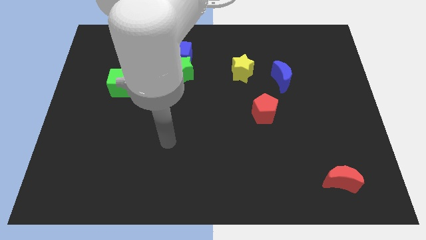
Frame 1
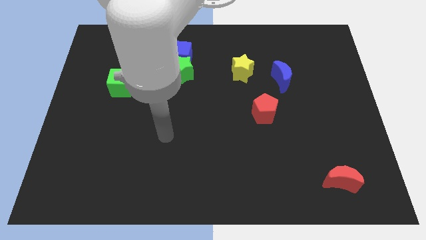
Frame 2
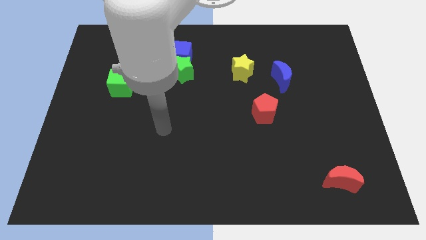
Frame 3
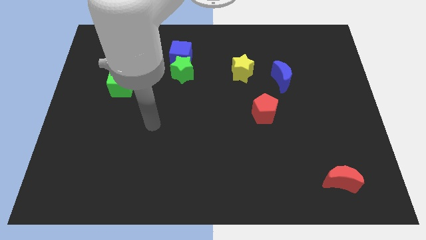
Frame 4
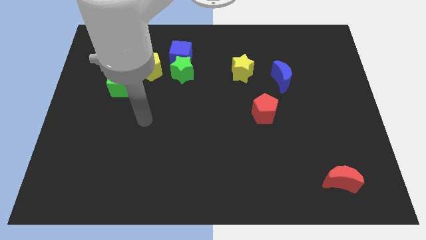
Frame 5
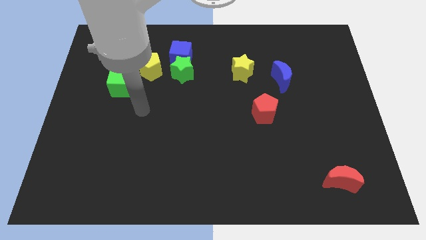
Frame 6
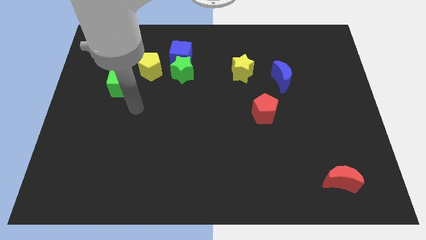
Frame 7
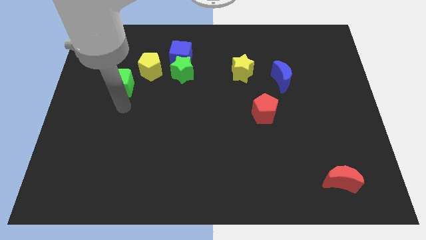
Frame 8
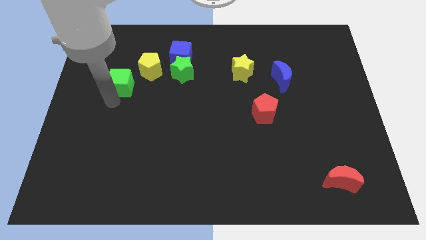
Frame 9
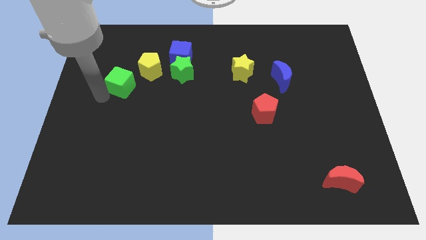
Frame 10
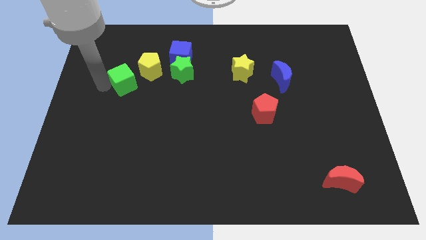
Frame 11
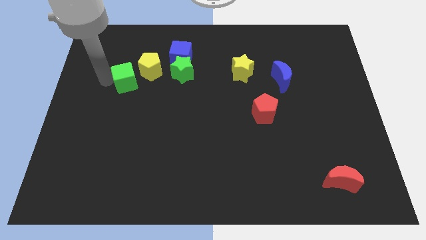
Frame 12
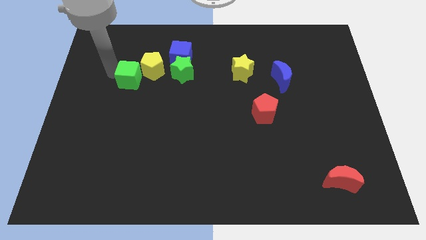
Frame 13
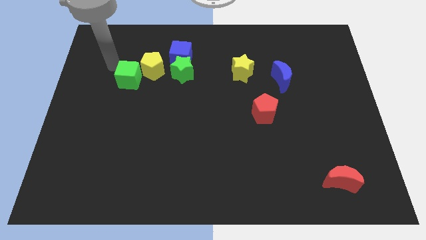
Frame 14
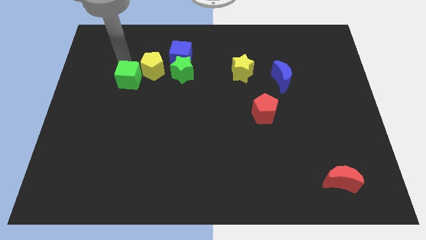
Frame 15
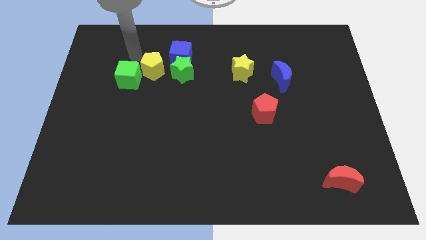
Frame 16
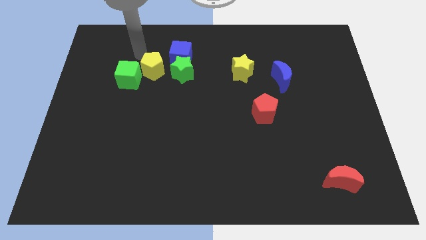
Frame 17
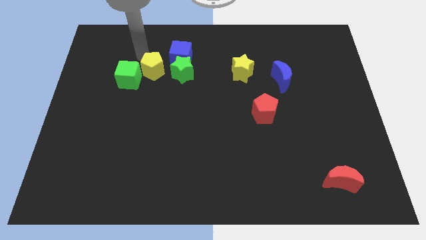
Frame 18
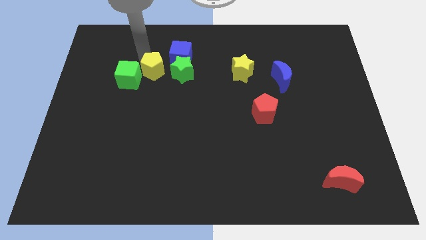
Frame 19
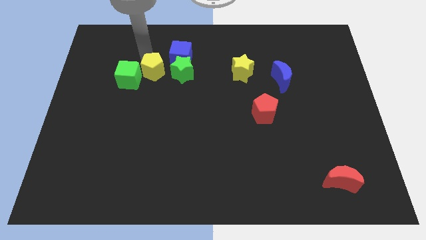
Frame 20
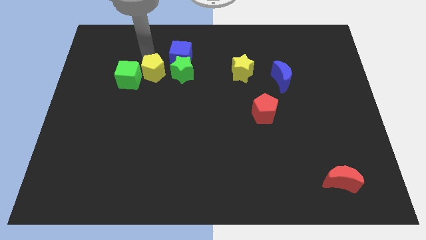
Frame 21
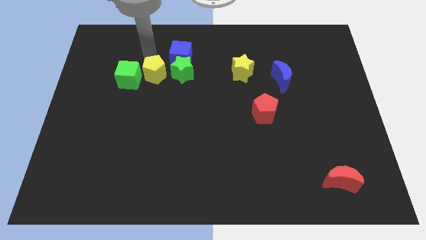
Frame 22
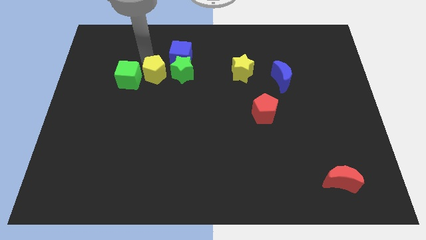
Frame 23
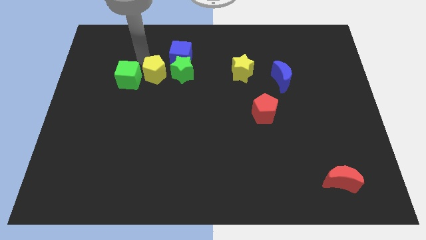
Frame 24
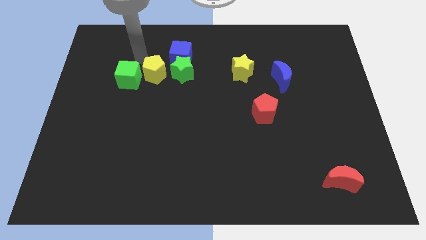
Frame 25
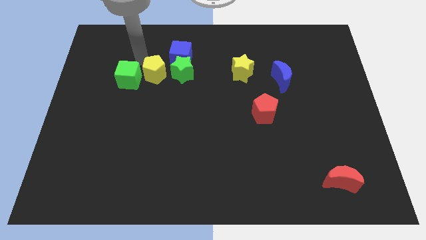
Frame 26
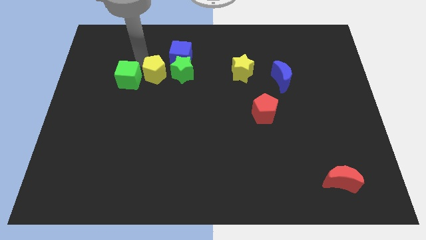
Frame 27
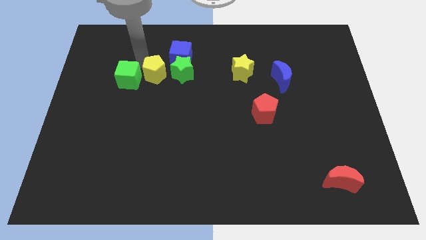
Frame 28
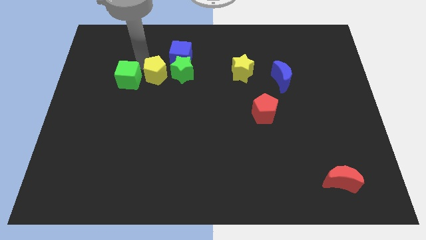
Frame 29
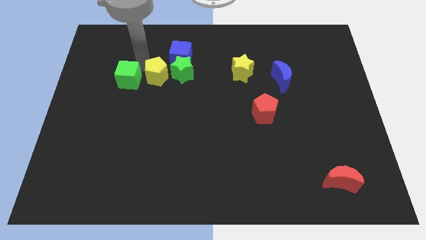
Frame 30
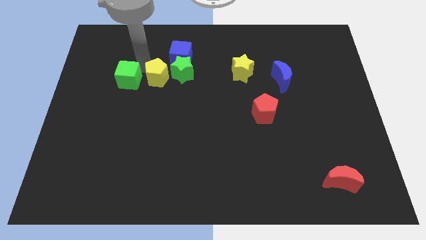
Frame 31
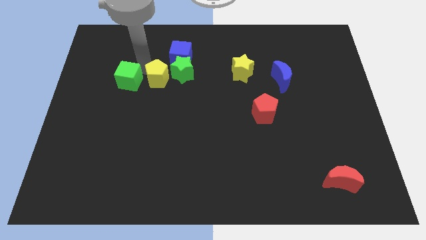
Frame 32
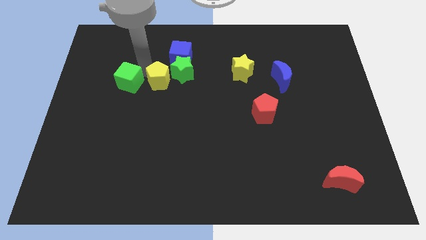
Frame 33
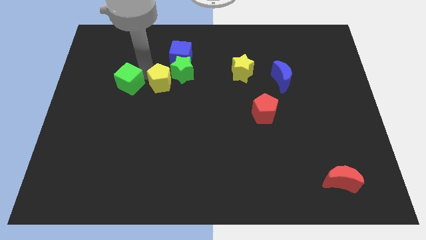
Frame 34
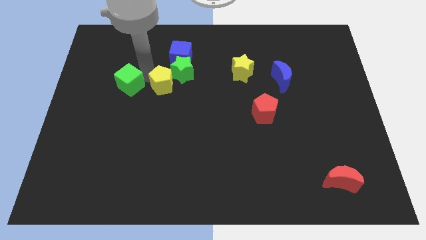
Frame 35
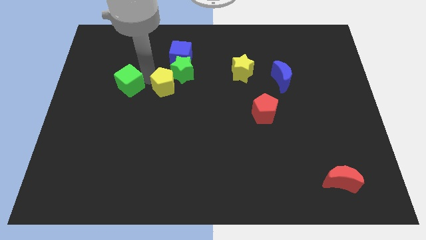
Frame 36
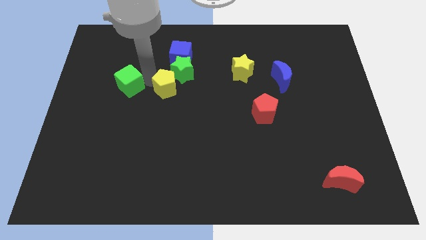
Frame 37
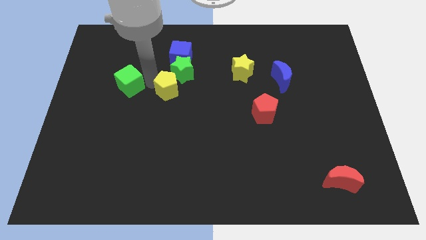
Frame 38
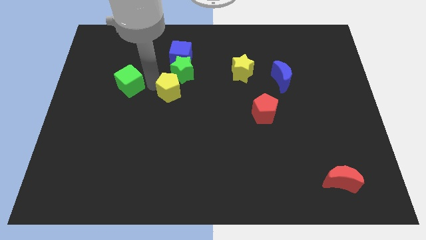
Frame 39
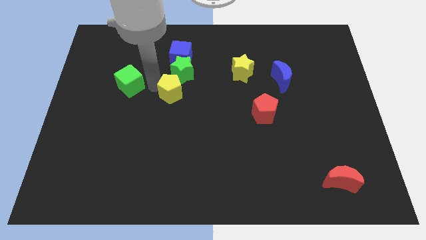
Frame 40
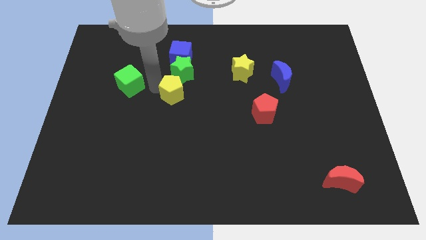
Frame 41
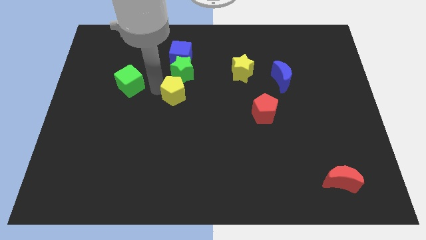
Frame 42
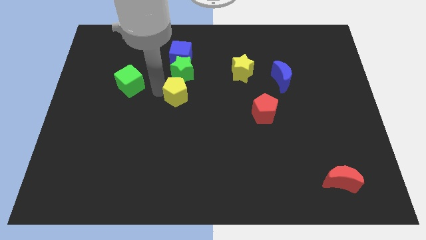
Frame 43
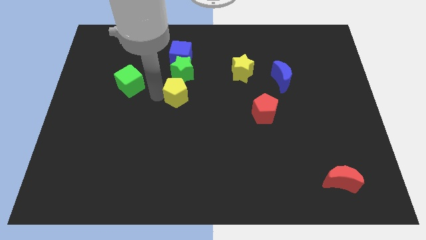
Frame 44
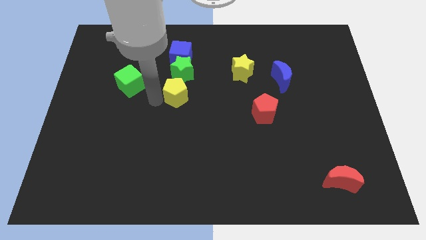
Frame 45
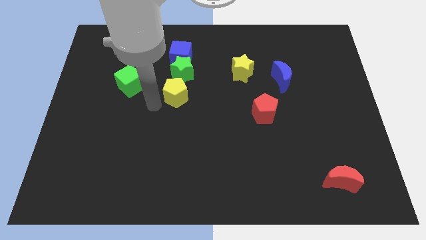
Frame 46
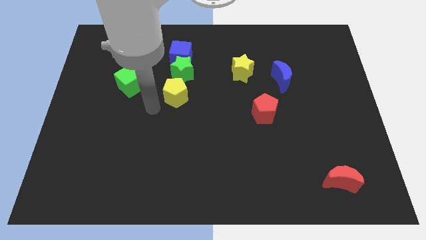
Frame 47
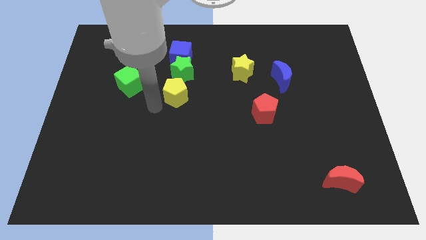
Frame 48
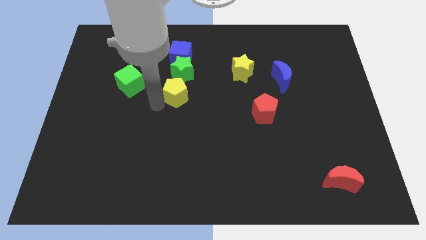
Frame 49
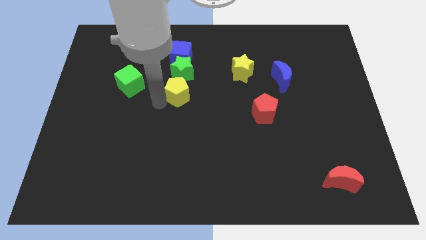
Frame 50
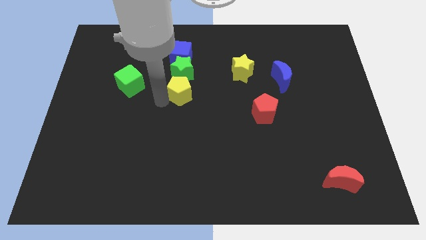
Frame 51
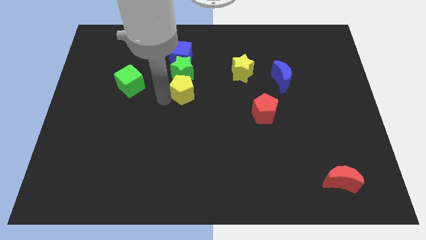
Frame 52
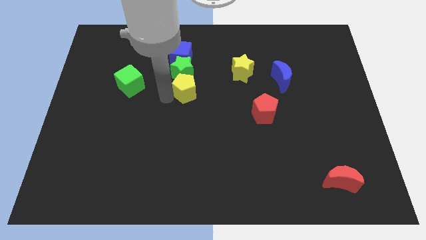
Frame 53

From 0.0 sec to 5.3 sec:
slide the yellow pentagon to the right a little bit

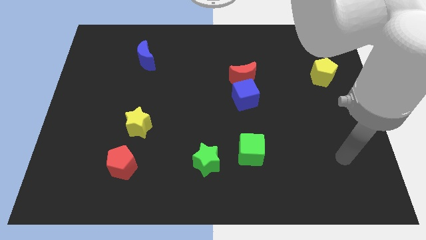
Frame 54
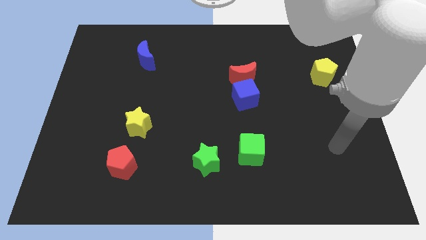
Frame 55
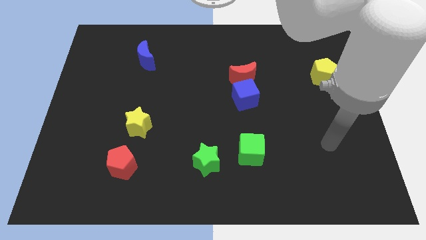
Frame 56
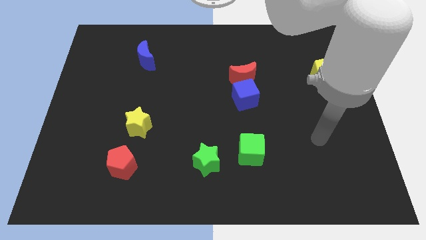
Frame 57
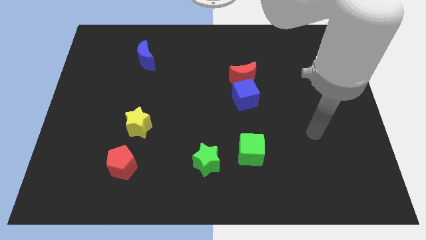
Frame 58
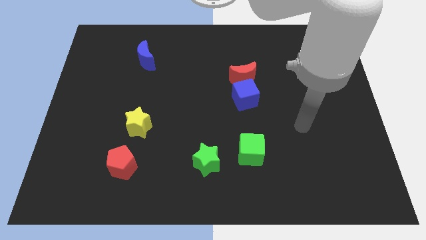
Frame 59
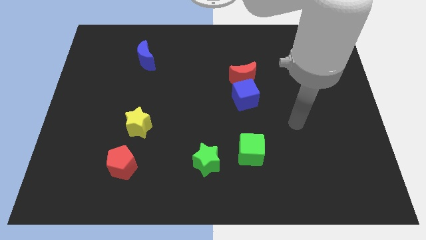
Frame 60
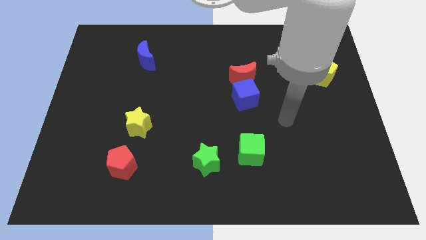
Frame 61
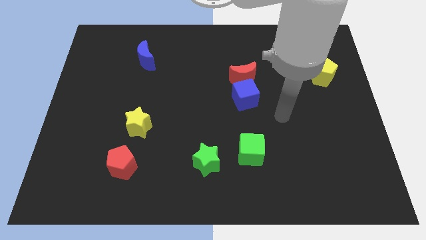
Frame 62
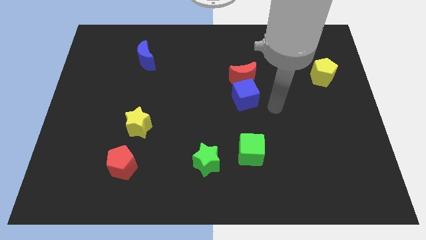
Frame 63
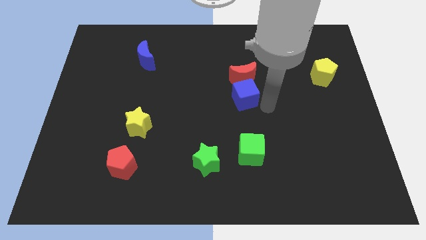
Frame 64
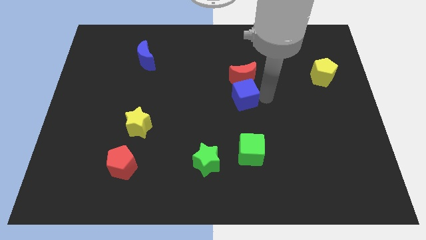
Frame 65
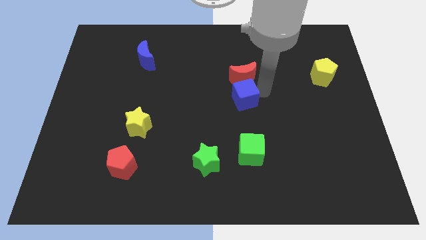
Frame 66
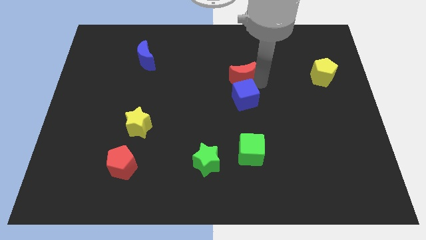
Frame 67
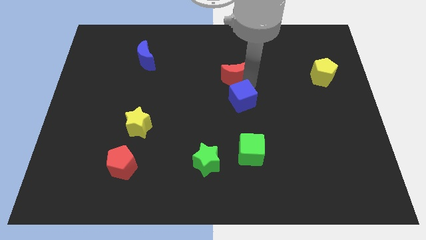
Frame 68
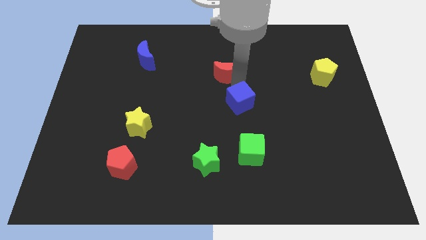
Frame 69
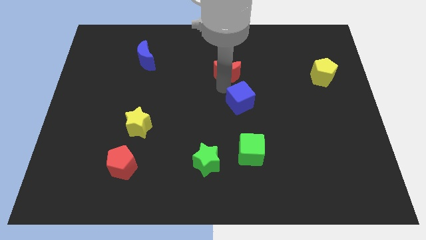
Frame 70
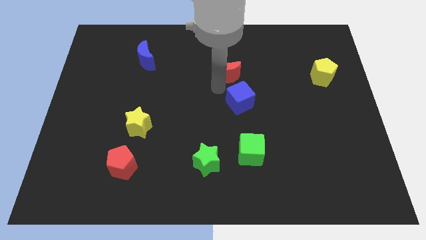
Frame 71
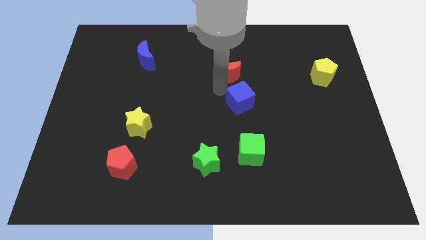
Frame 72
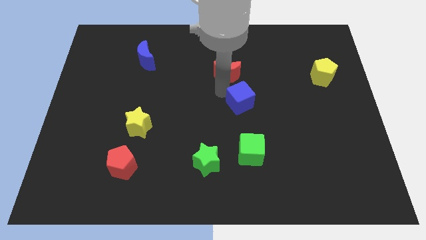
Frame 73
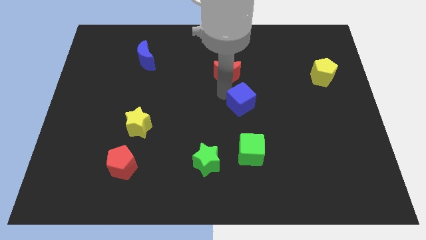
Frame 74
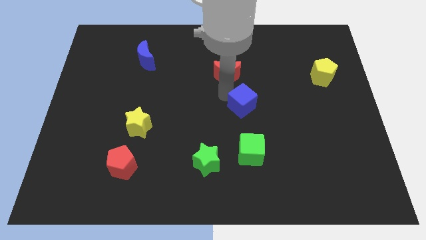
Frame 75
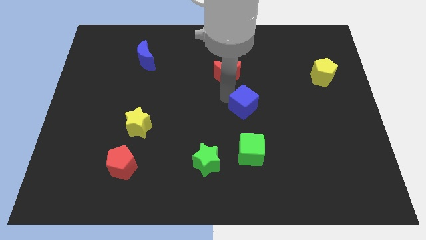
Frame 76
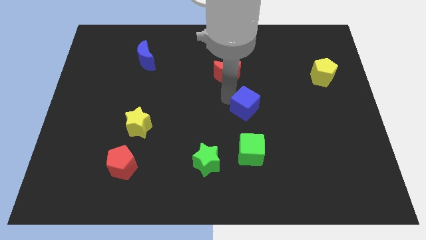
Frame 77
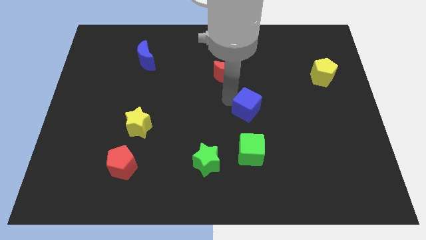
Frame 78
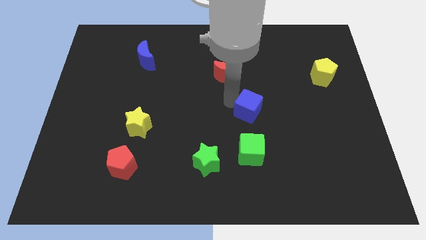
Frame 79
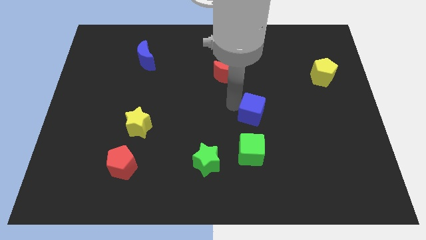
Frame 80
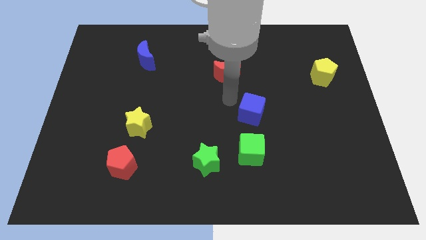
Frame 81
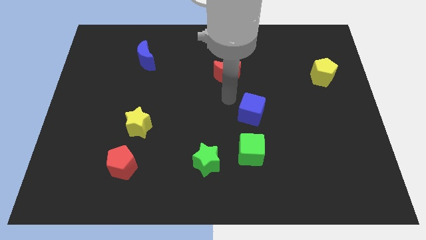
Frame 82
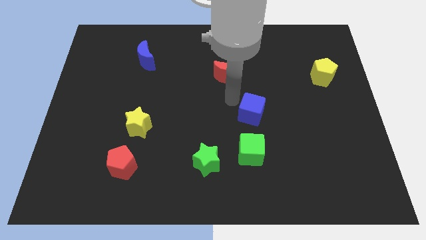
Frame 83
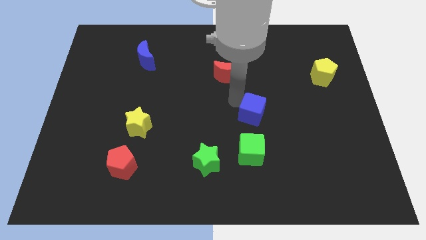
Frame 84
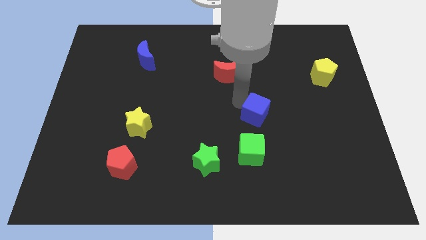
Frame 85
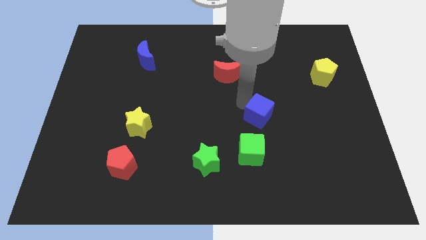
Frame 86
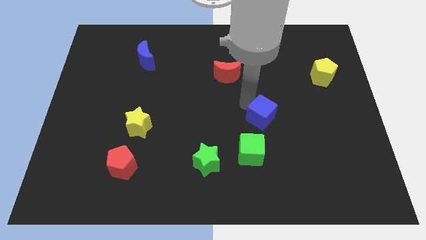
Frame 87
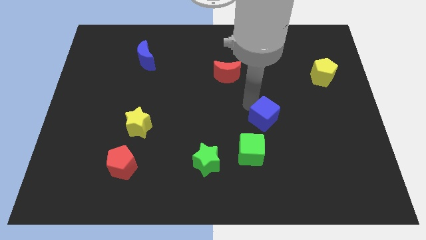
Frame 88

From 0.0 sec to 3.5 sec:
slightly slide the blue cube downwards and then to the right
